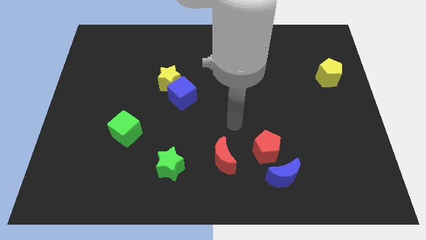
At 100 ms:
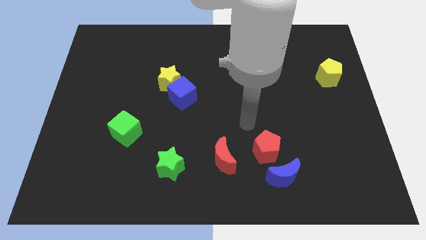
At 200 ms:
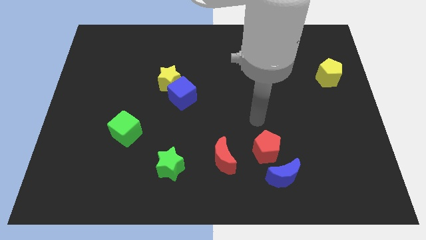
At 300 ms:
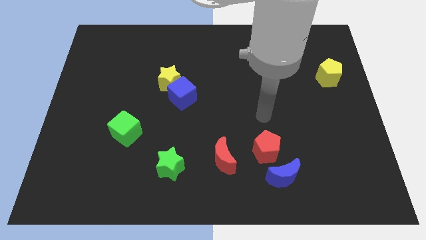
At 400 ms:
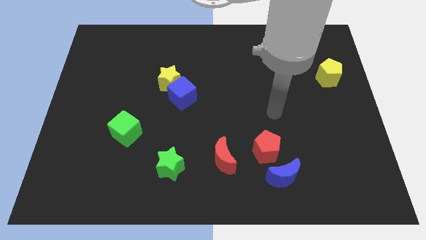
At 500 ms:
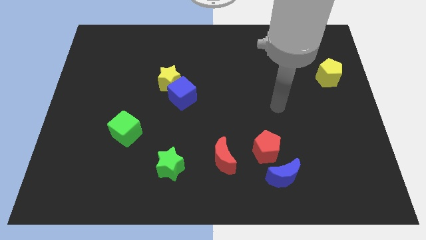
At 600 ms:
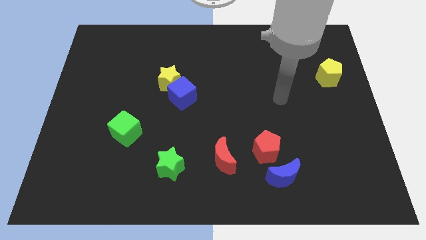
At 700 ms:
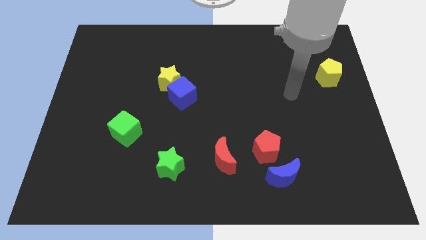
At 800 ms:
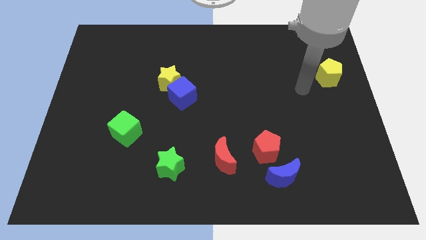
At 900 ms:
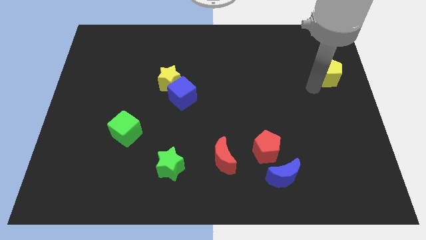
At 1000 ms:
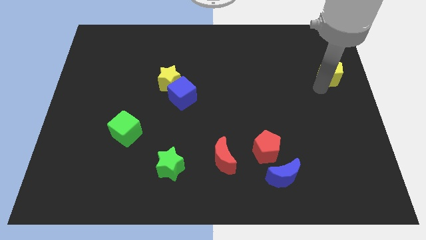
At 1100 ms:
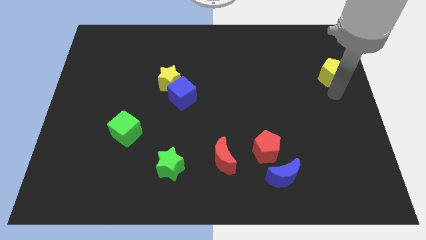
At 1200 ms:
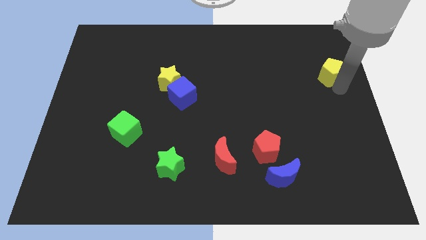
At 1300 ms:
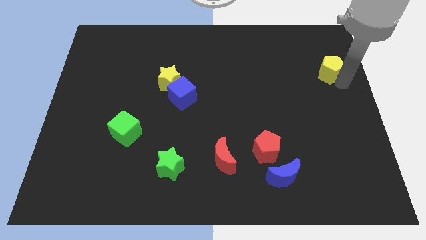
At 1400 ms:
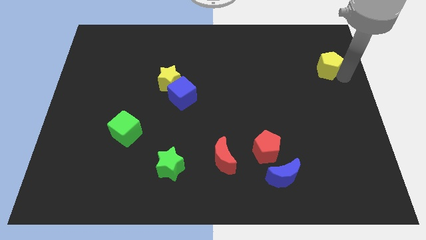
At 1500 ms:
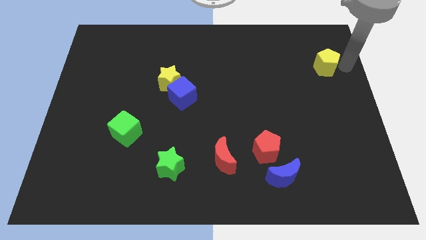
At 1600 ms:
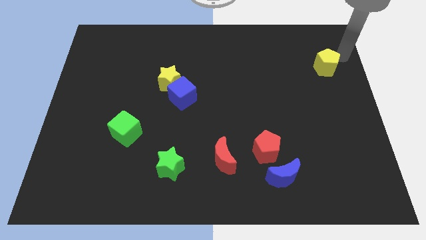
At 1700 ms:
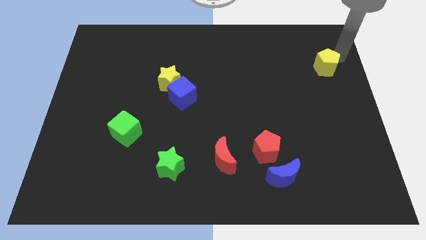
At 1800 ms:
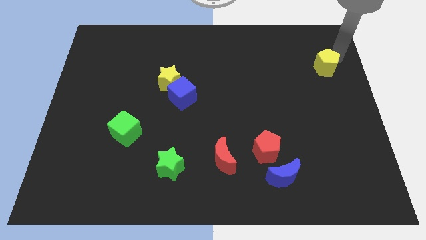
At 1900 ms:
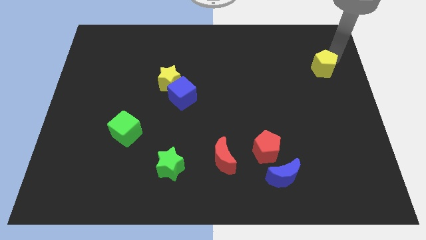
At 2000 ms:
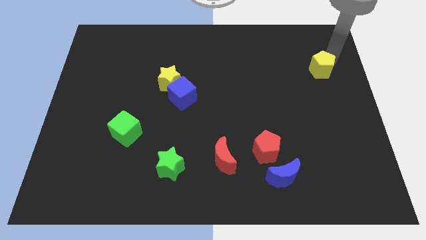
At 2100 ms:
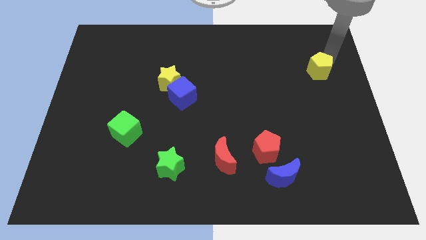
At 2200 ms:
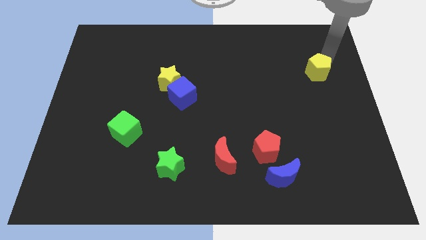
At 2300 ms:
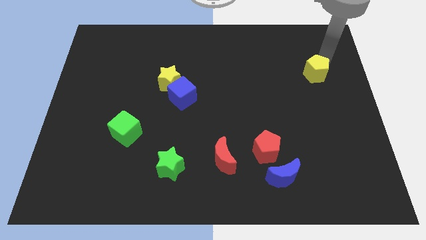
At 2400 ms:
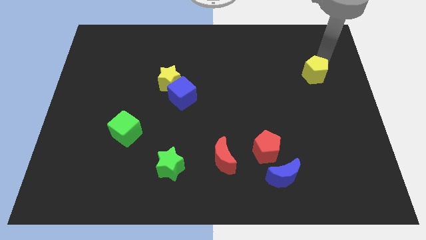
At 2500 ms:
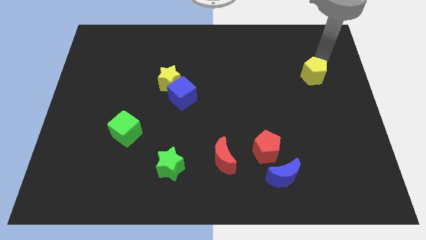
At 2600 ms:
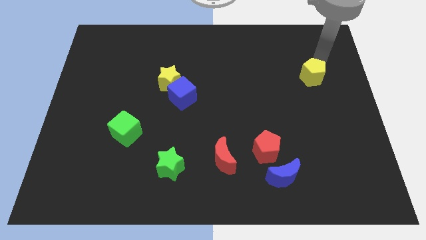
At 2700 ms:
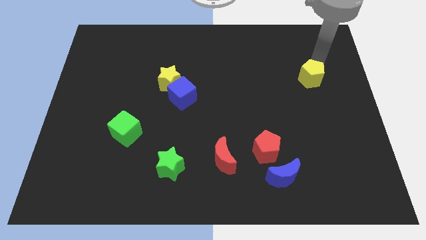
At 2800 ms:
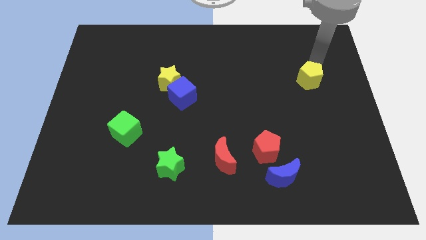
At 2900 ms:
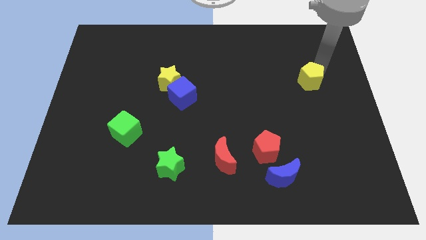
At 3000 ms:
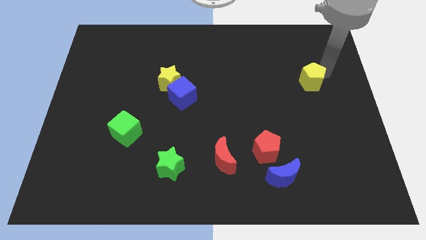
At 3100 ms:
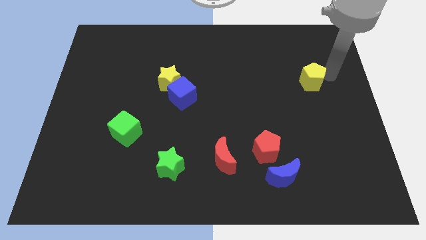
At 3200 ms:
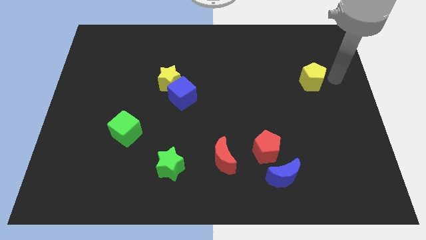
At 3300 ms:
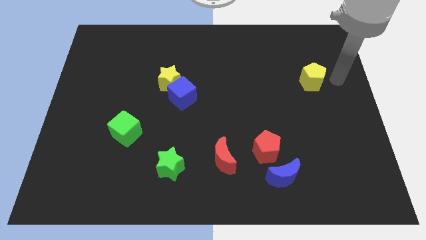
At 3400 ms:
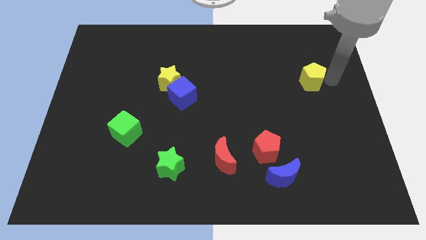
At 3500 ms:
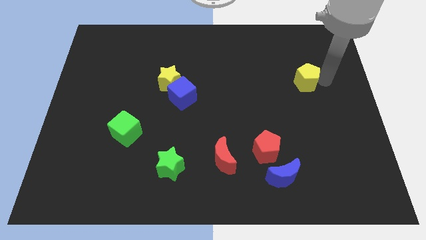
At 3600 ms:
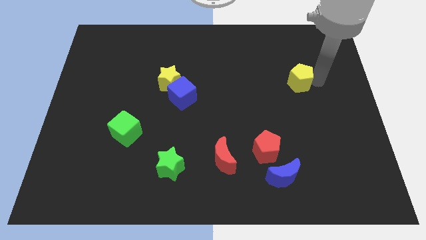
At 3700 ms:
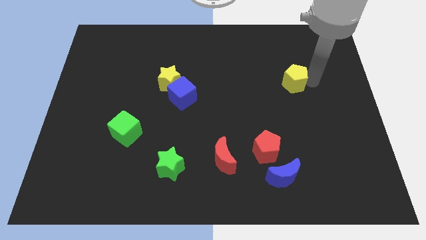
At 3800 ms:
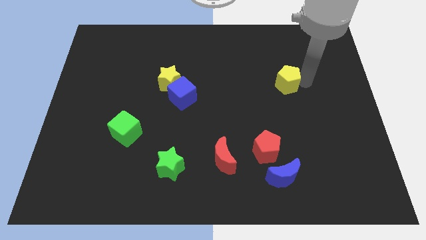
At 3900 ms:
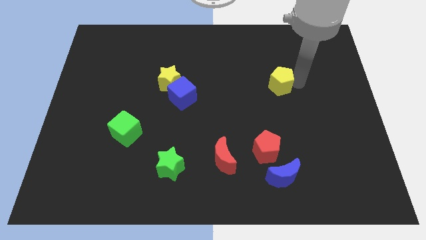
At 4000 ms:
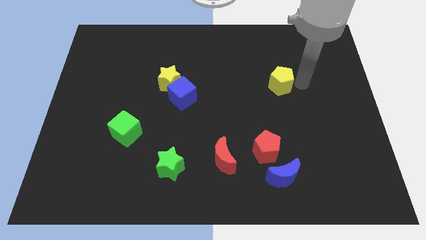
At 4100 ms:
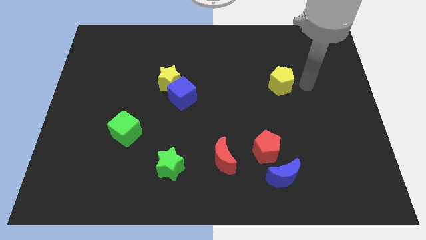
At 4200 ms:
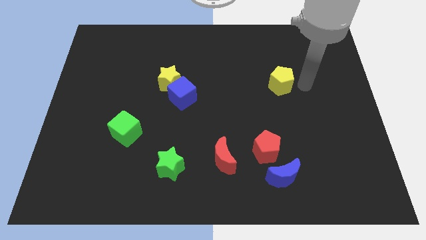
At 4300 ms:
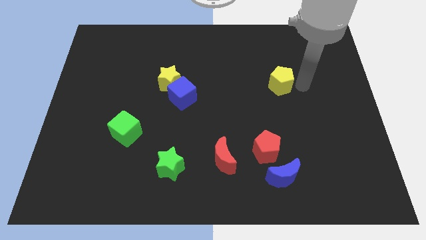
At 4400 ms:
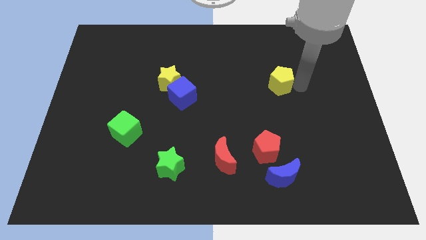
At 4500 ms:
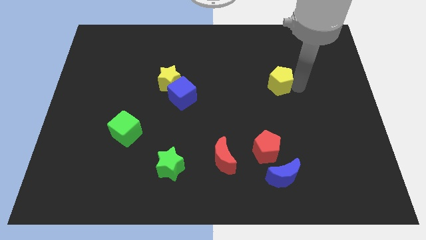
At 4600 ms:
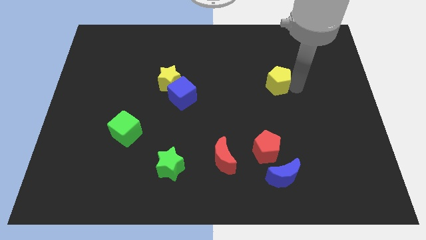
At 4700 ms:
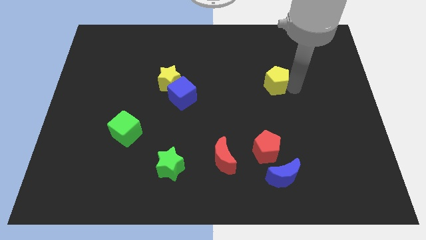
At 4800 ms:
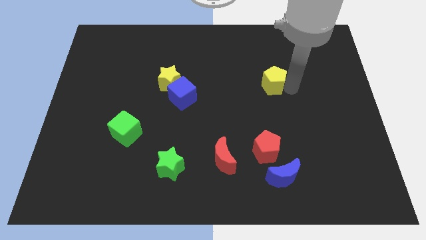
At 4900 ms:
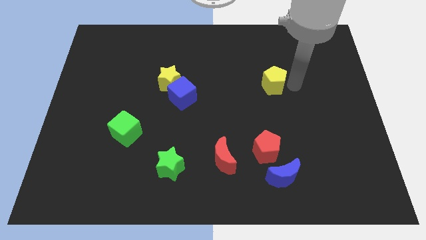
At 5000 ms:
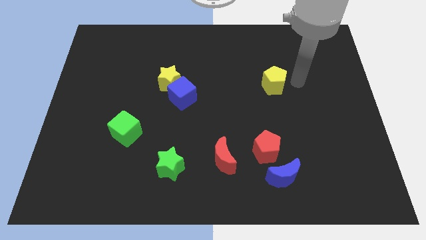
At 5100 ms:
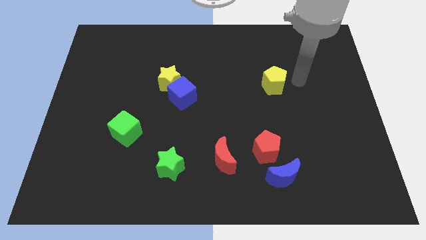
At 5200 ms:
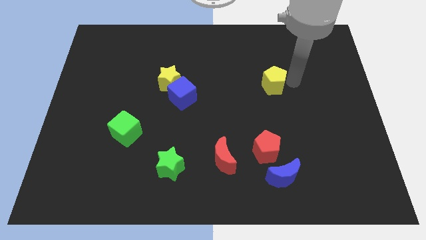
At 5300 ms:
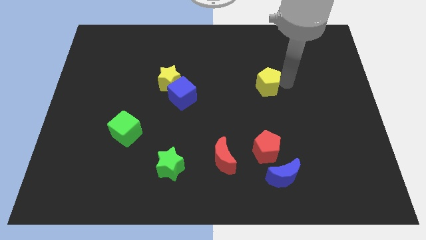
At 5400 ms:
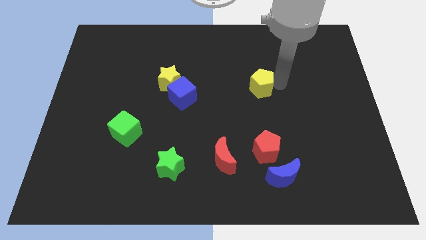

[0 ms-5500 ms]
slide the yellow pentagon to the center of the board

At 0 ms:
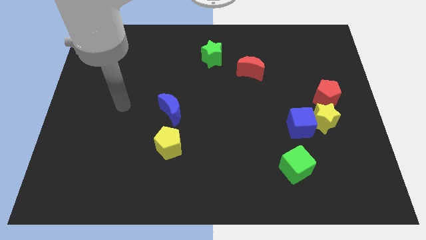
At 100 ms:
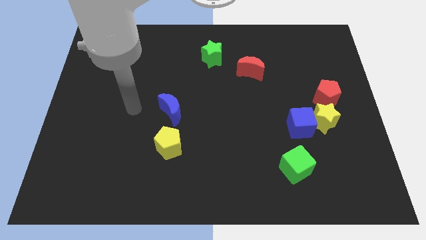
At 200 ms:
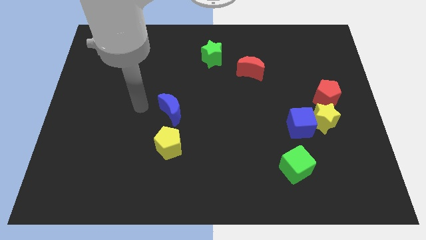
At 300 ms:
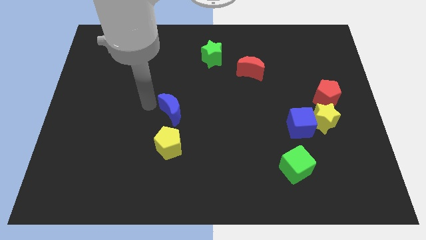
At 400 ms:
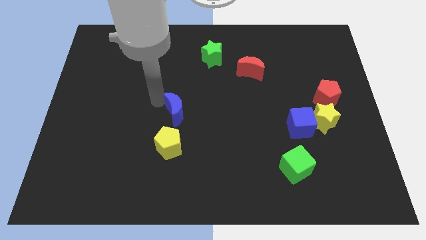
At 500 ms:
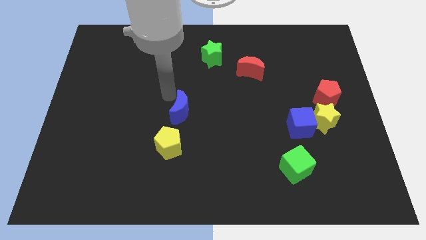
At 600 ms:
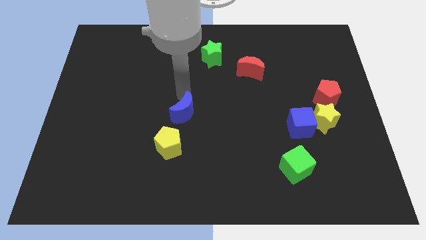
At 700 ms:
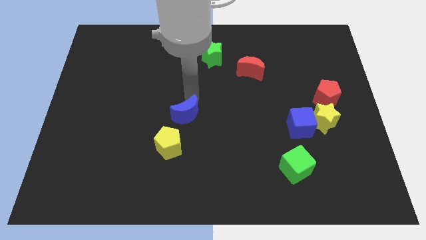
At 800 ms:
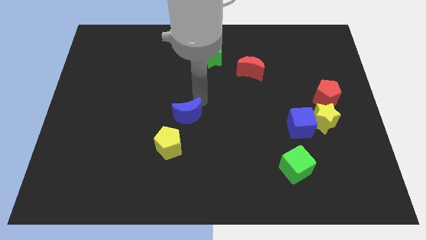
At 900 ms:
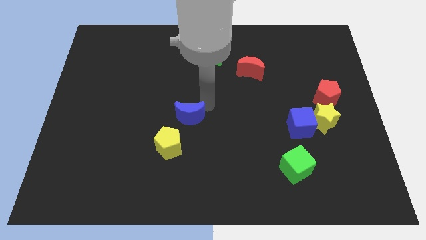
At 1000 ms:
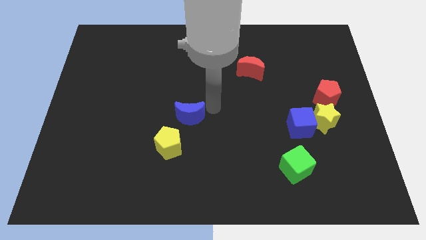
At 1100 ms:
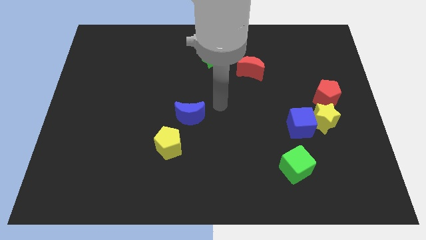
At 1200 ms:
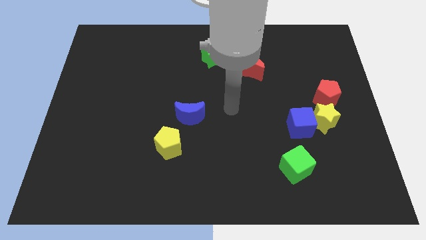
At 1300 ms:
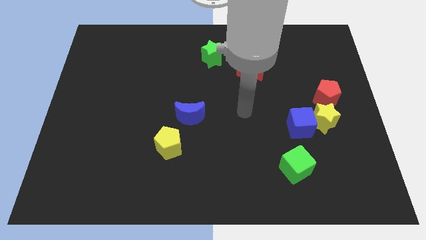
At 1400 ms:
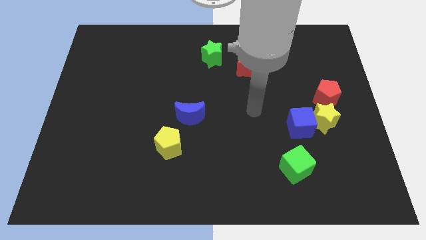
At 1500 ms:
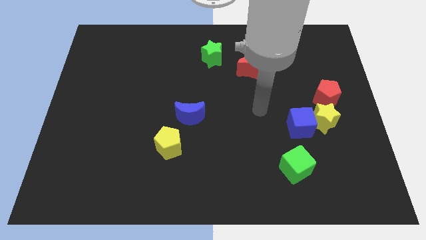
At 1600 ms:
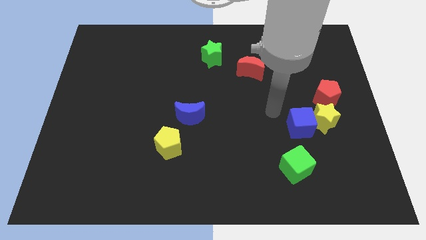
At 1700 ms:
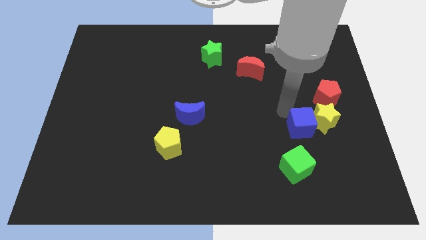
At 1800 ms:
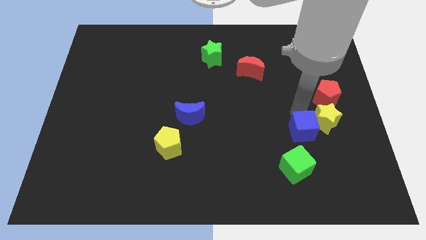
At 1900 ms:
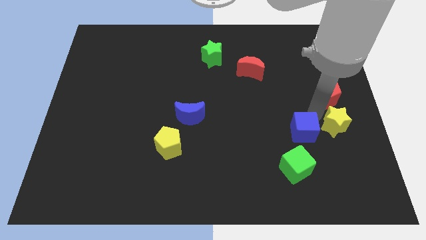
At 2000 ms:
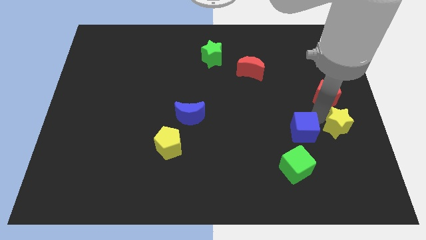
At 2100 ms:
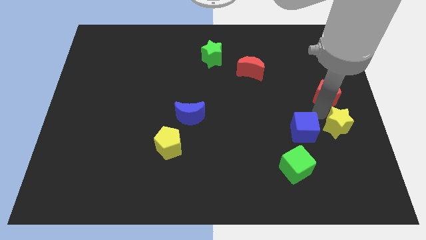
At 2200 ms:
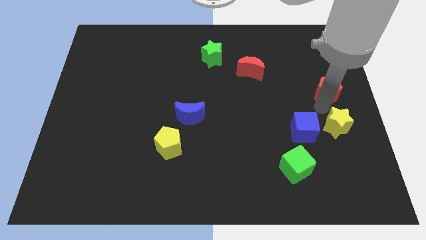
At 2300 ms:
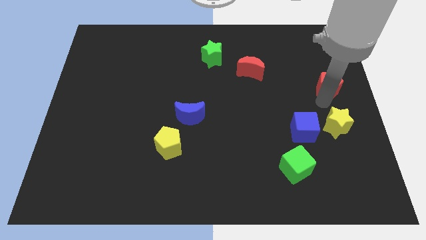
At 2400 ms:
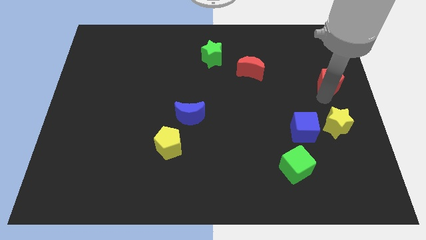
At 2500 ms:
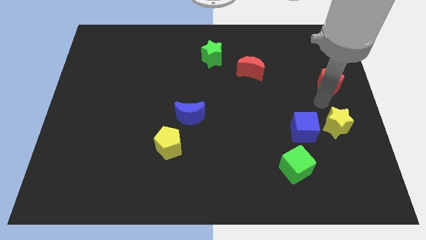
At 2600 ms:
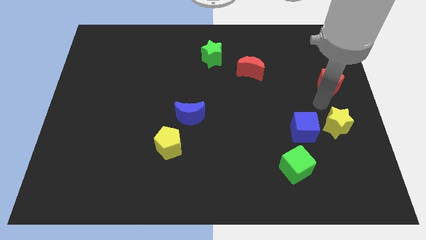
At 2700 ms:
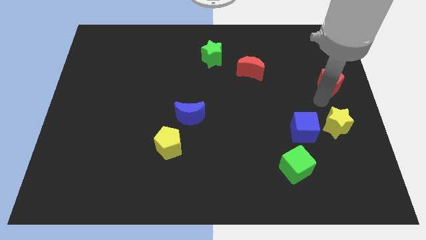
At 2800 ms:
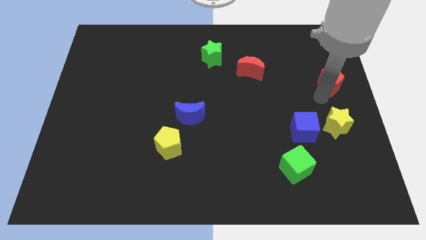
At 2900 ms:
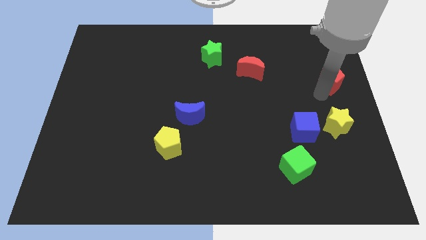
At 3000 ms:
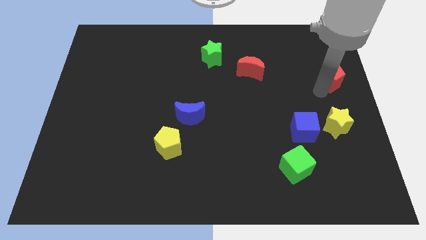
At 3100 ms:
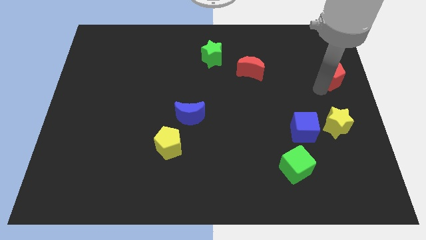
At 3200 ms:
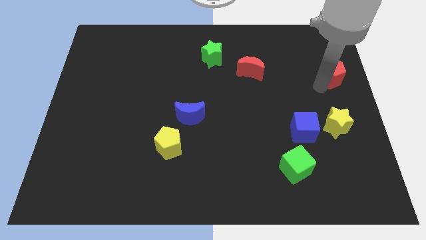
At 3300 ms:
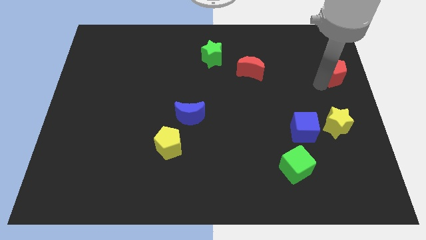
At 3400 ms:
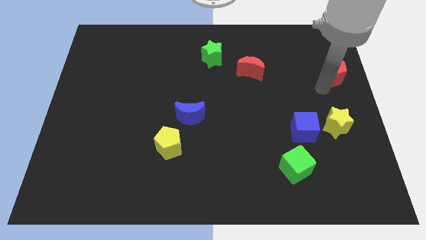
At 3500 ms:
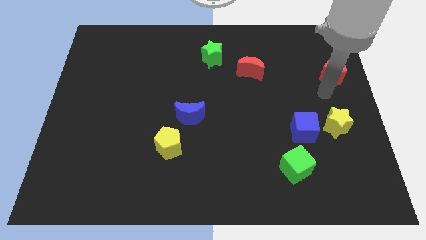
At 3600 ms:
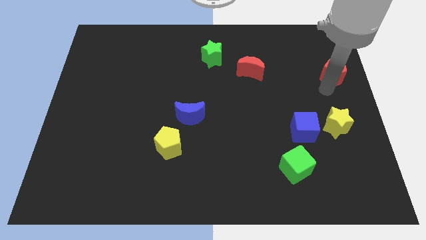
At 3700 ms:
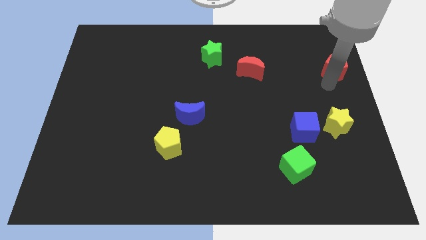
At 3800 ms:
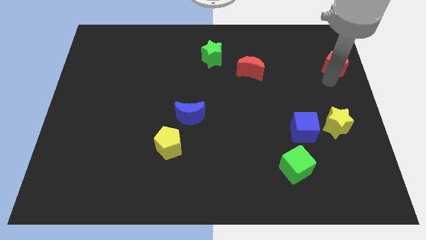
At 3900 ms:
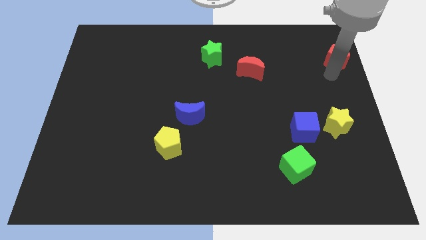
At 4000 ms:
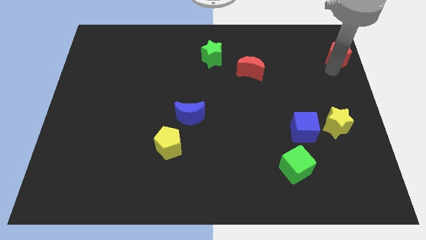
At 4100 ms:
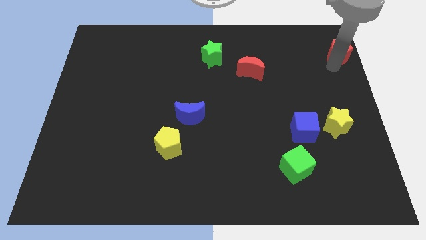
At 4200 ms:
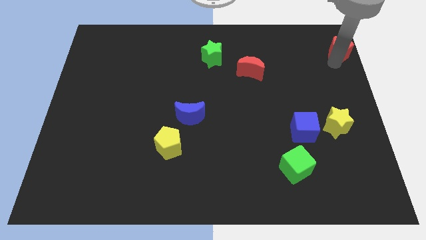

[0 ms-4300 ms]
put the red pentagon to the top right
